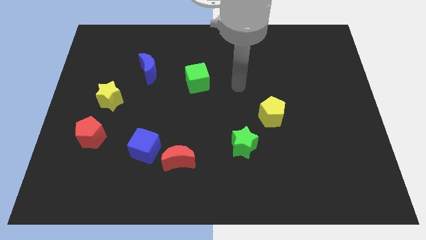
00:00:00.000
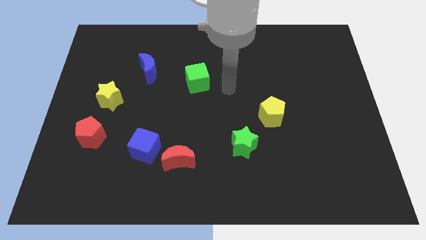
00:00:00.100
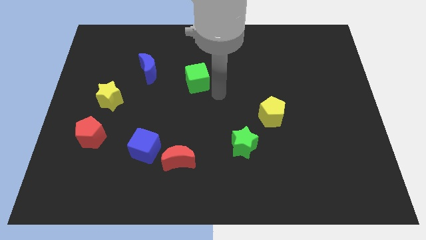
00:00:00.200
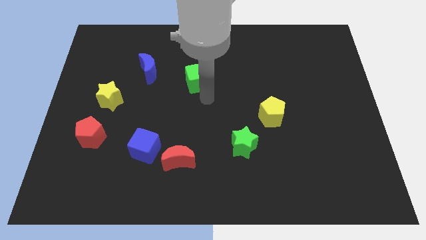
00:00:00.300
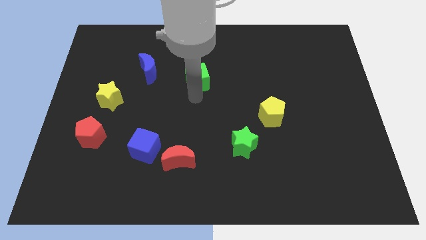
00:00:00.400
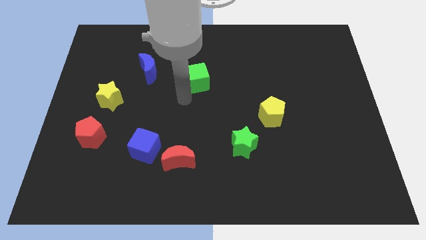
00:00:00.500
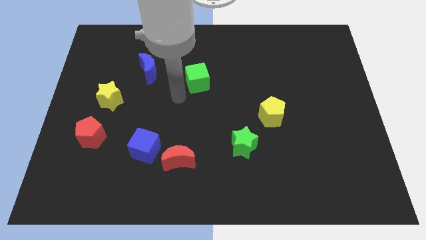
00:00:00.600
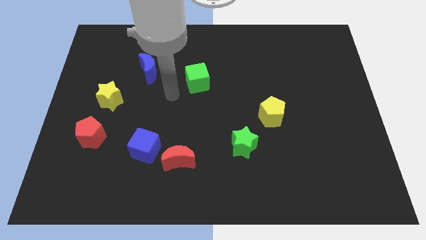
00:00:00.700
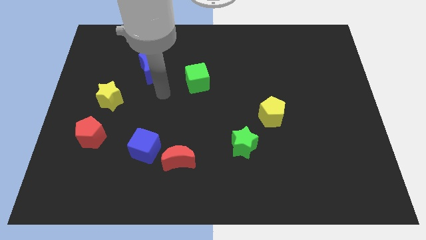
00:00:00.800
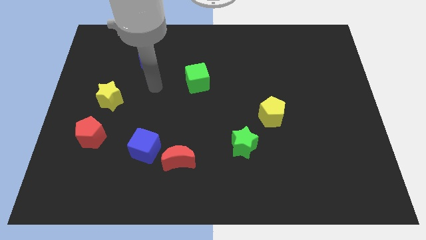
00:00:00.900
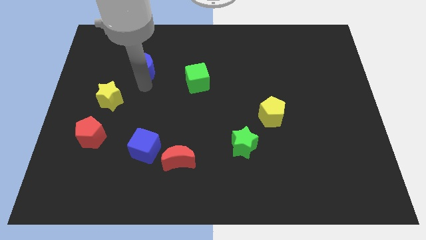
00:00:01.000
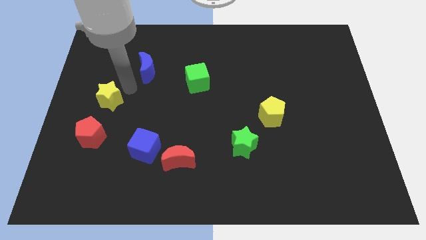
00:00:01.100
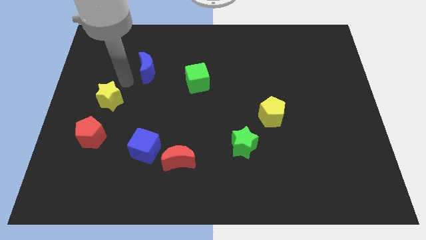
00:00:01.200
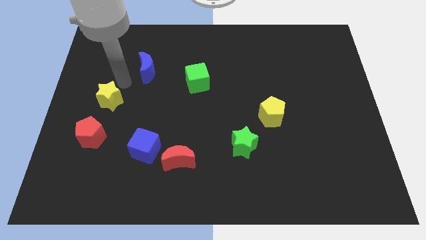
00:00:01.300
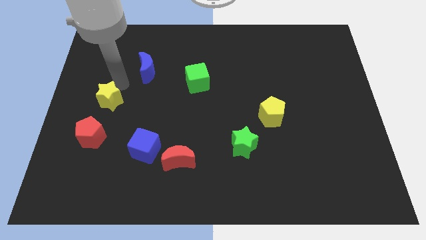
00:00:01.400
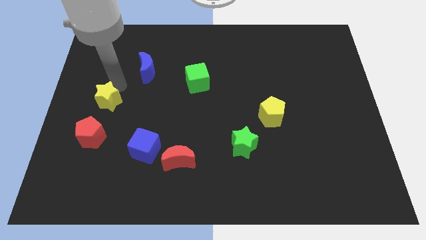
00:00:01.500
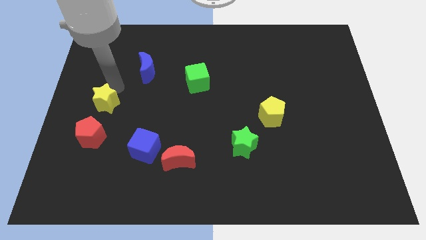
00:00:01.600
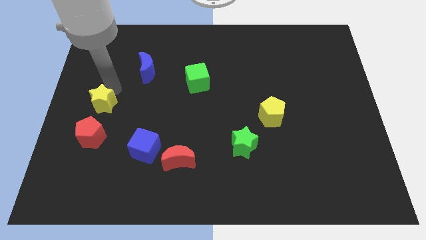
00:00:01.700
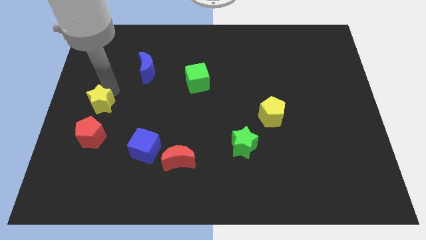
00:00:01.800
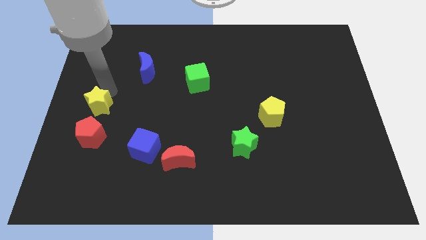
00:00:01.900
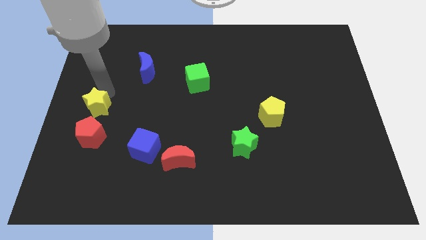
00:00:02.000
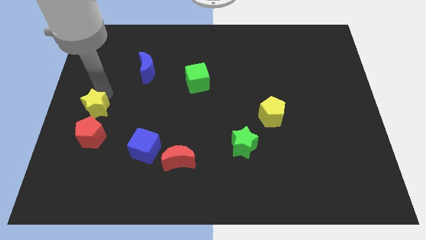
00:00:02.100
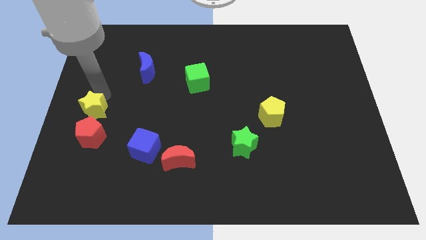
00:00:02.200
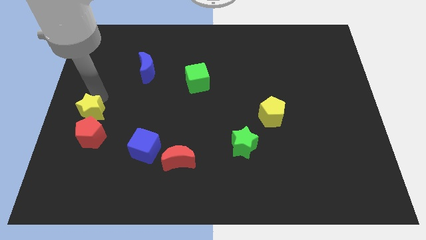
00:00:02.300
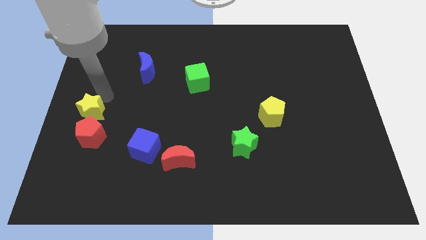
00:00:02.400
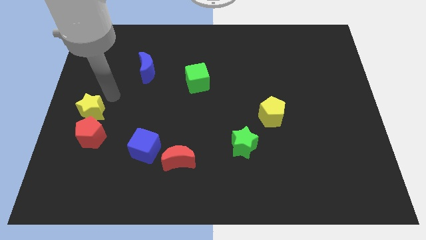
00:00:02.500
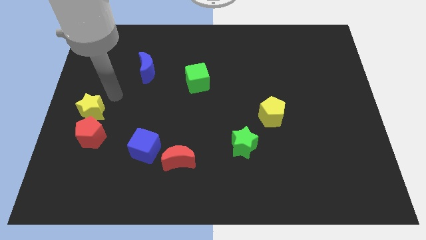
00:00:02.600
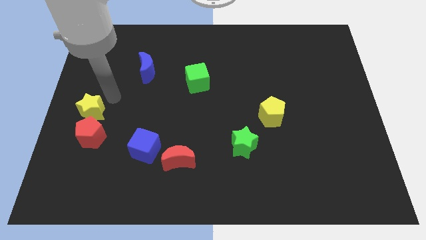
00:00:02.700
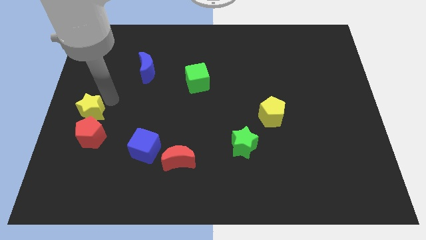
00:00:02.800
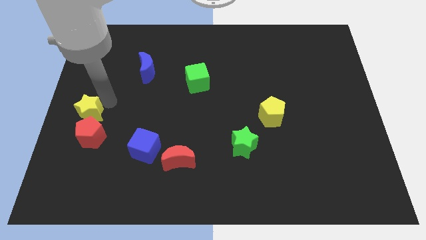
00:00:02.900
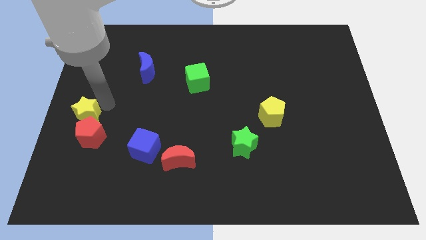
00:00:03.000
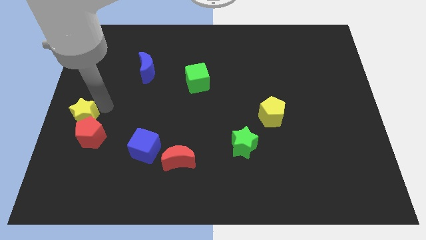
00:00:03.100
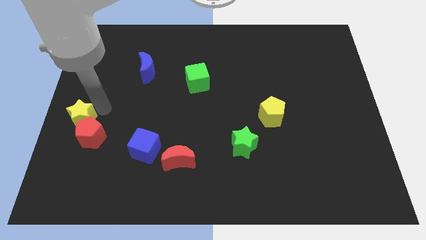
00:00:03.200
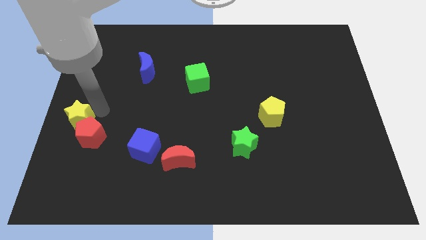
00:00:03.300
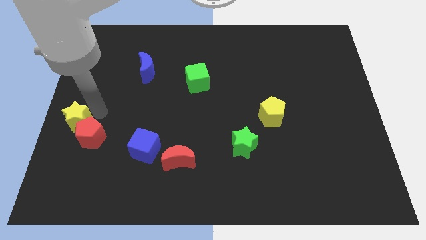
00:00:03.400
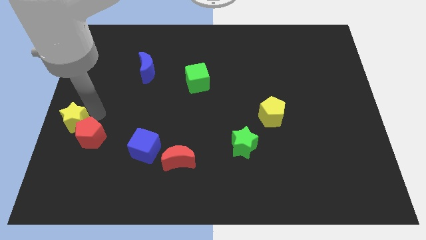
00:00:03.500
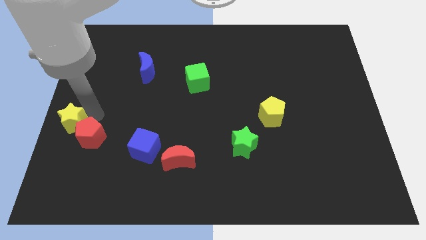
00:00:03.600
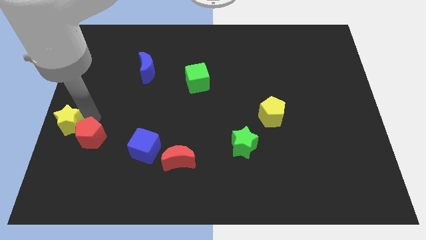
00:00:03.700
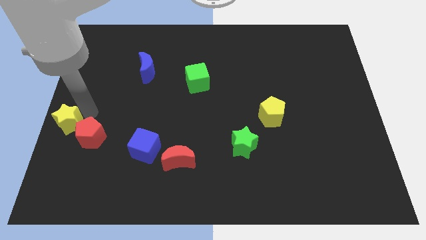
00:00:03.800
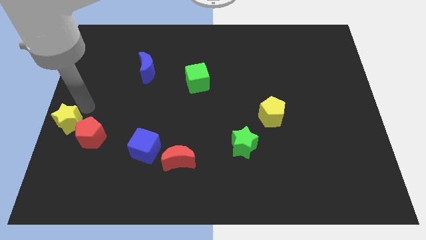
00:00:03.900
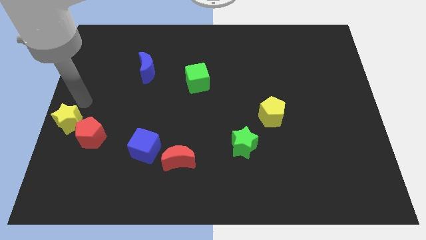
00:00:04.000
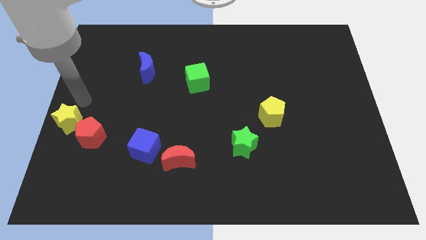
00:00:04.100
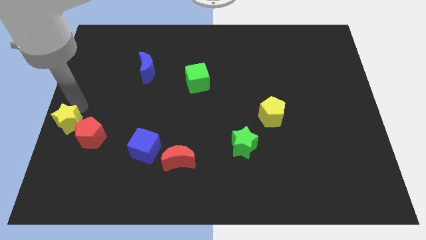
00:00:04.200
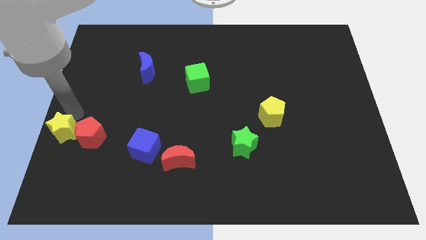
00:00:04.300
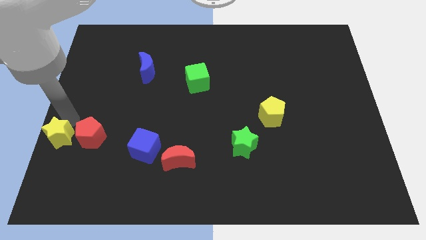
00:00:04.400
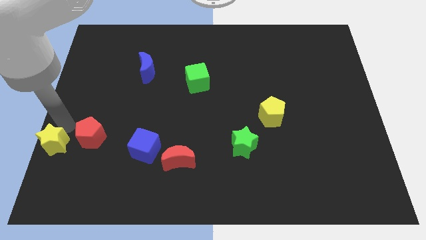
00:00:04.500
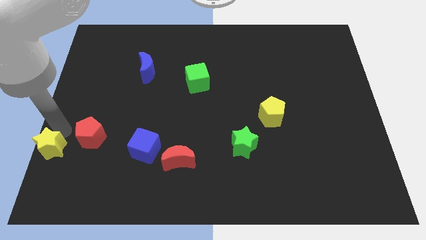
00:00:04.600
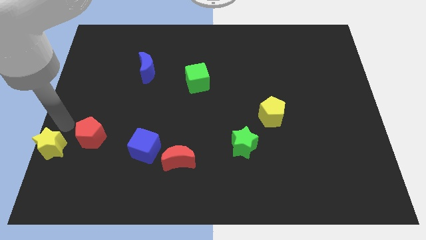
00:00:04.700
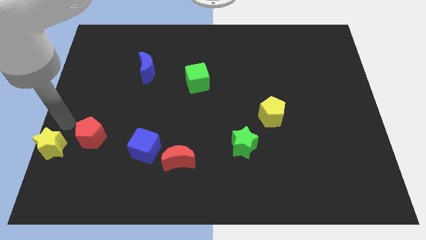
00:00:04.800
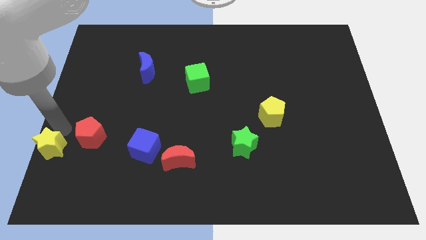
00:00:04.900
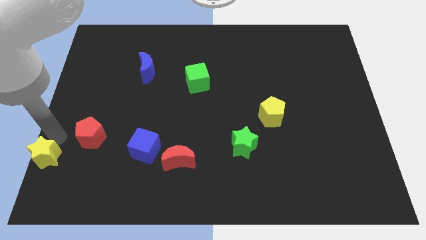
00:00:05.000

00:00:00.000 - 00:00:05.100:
slide the yellow star to the bottom left

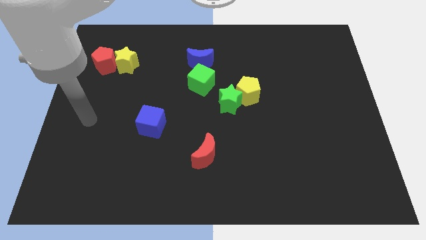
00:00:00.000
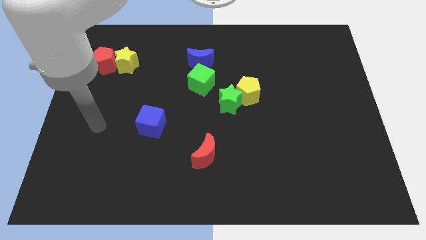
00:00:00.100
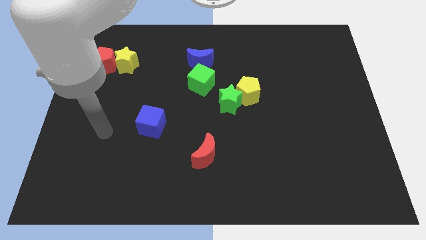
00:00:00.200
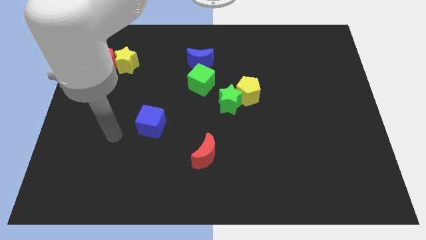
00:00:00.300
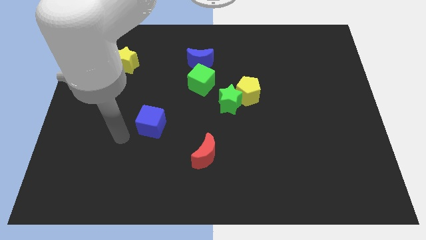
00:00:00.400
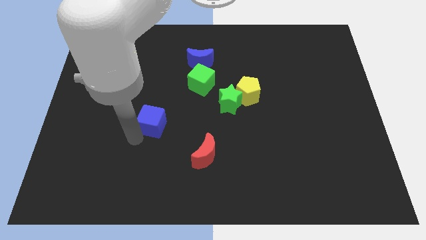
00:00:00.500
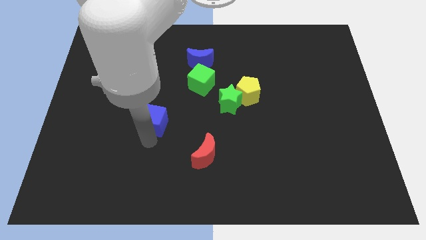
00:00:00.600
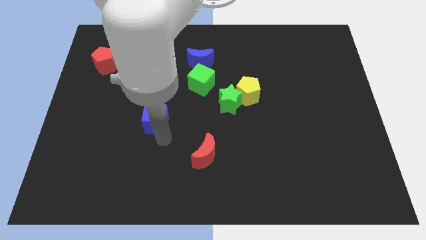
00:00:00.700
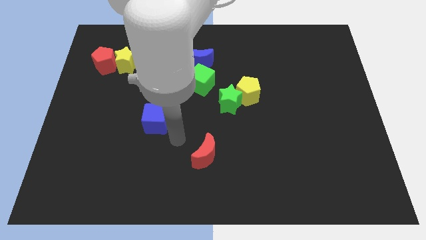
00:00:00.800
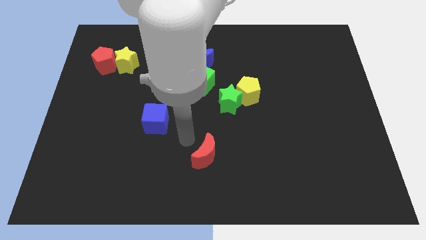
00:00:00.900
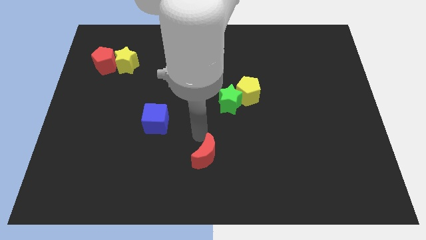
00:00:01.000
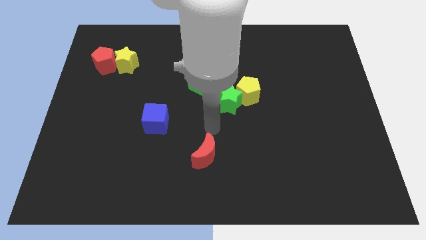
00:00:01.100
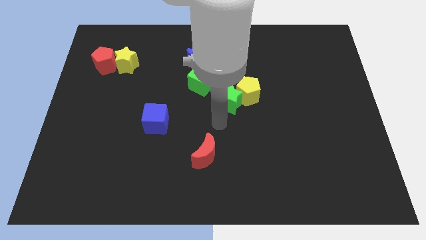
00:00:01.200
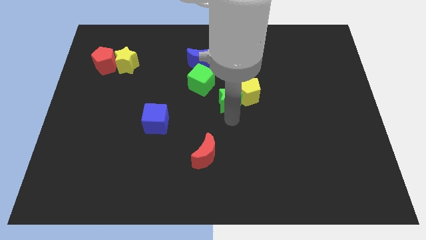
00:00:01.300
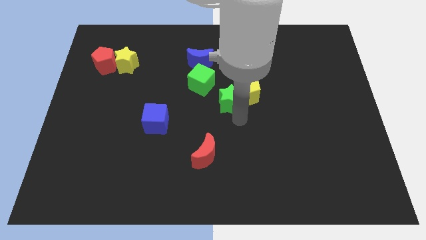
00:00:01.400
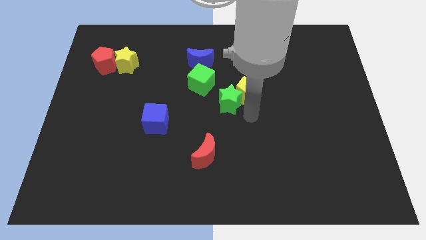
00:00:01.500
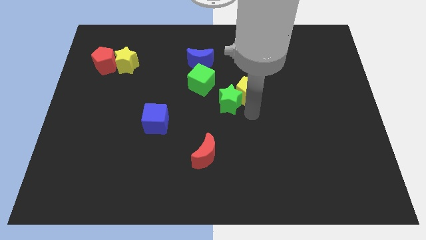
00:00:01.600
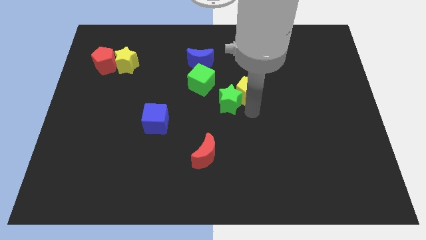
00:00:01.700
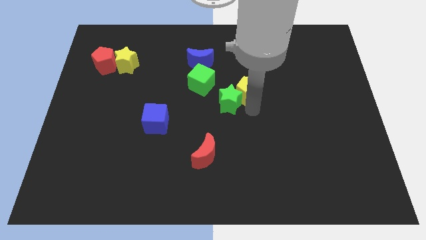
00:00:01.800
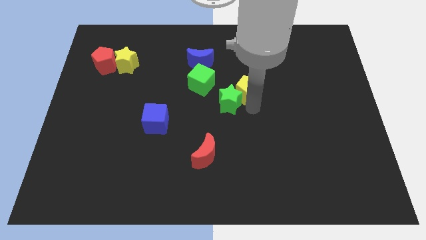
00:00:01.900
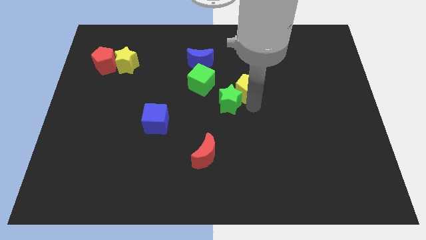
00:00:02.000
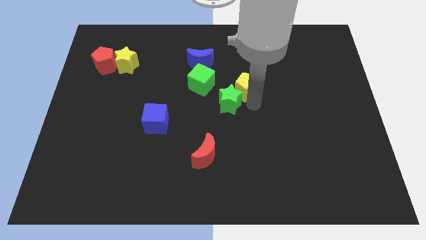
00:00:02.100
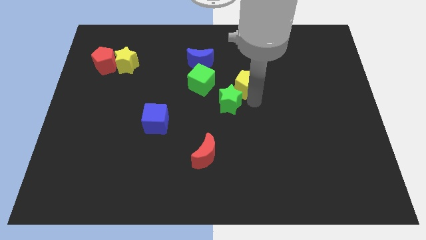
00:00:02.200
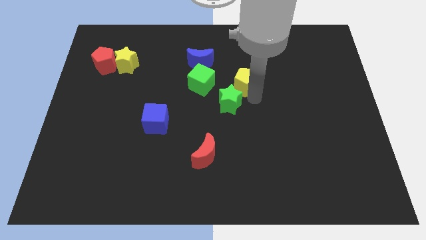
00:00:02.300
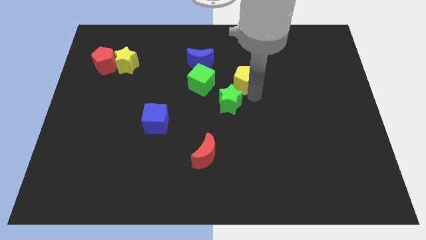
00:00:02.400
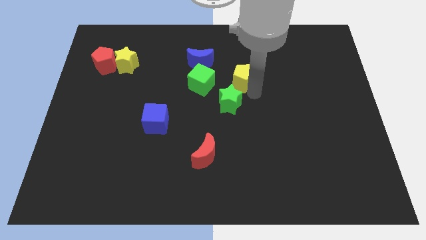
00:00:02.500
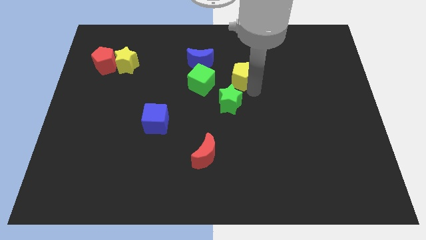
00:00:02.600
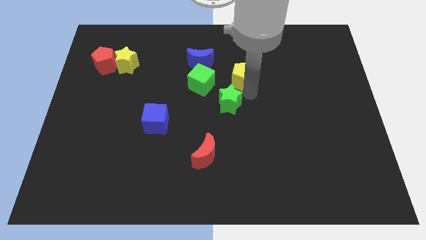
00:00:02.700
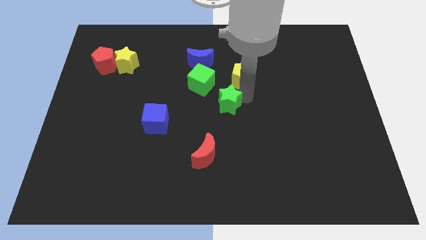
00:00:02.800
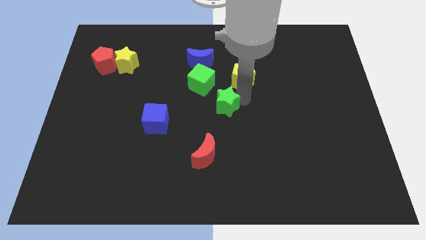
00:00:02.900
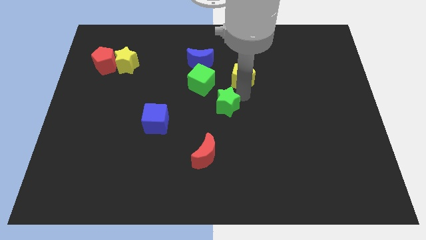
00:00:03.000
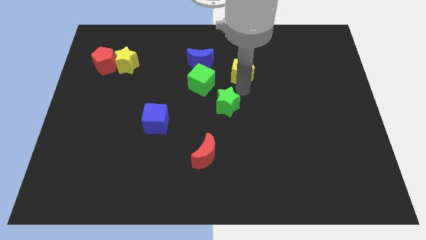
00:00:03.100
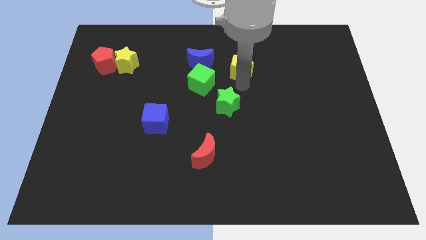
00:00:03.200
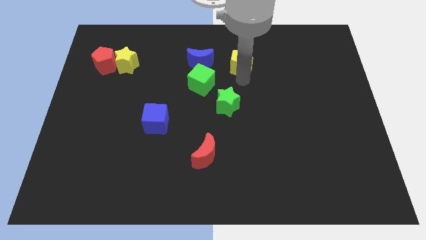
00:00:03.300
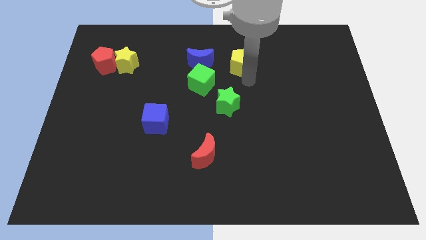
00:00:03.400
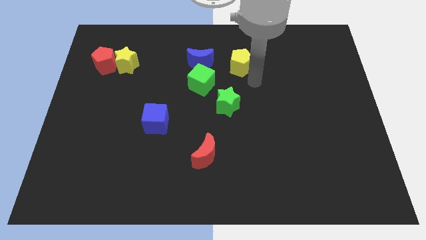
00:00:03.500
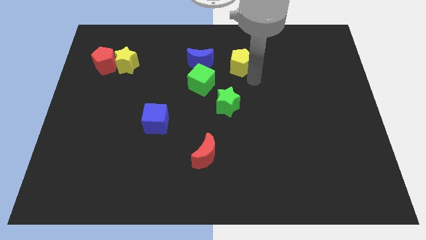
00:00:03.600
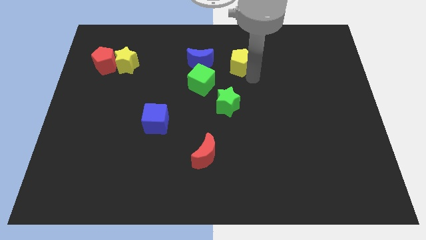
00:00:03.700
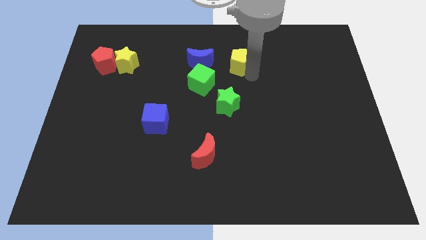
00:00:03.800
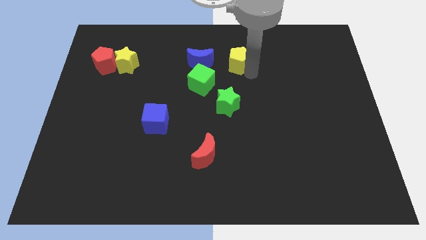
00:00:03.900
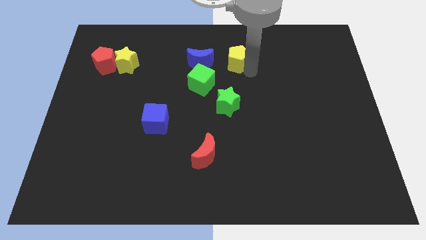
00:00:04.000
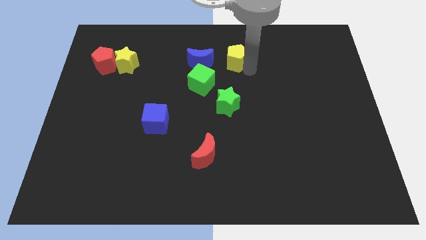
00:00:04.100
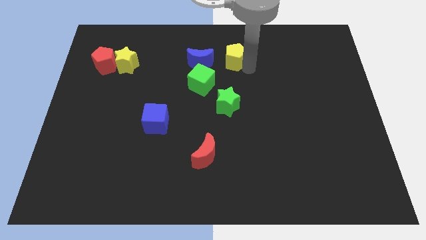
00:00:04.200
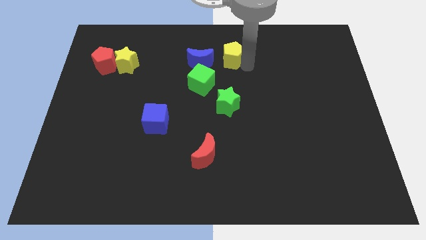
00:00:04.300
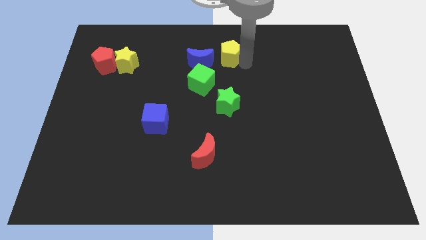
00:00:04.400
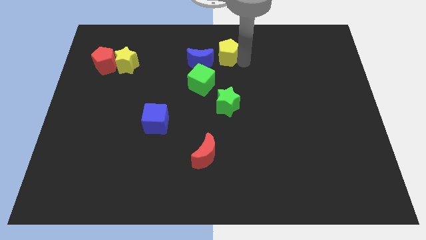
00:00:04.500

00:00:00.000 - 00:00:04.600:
move the yellow pentagon to the top side
